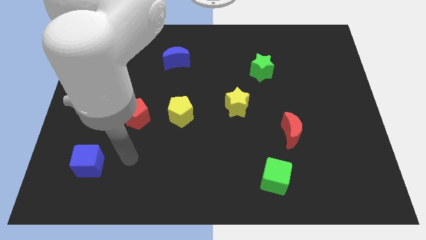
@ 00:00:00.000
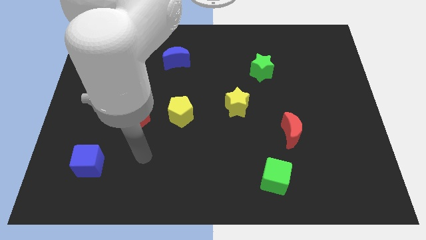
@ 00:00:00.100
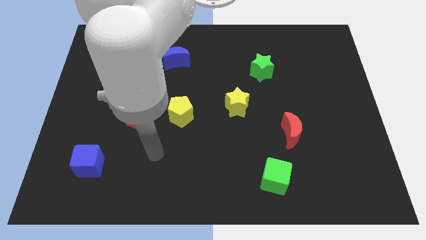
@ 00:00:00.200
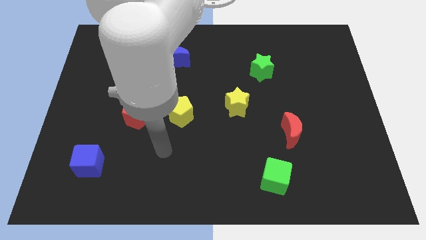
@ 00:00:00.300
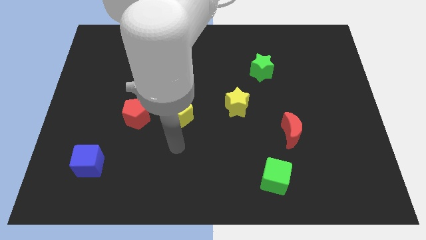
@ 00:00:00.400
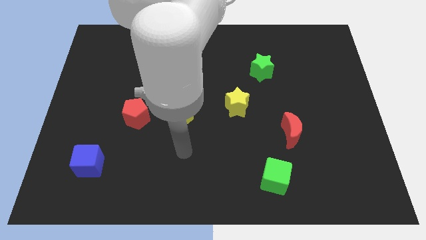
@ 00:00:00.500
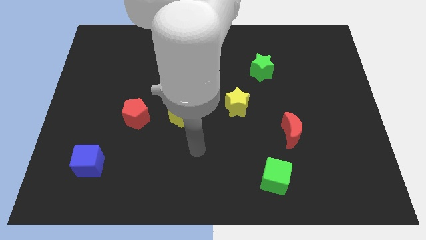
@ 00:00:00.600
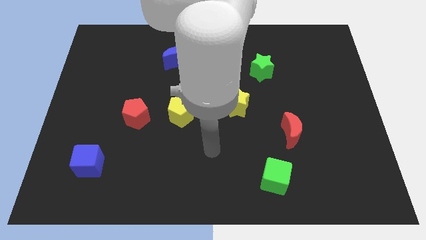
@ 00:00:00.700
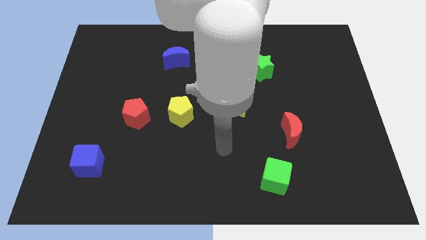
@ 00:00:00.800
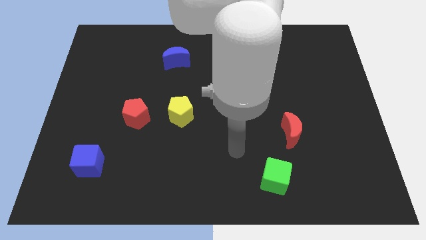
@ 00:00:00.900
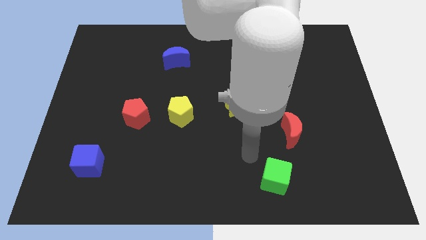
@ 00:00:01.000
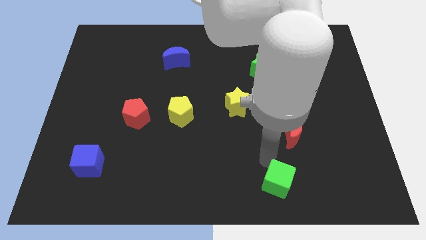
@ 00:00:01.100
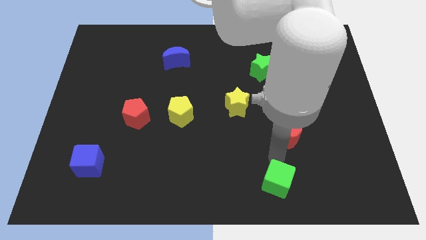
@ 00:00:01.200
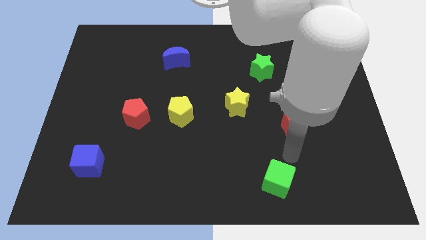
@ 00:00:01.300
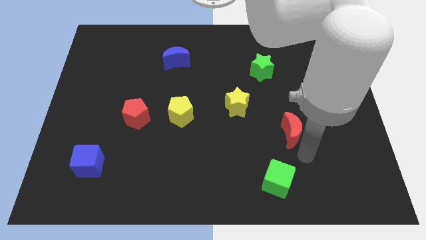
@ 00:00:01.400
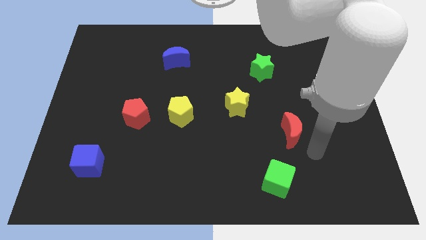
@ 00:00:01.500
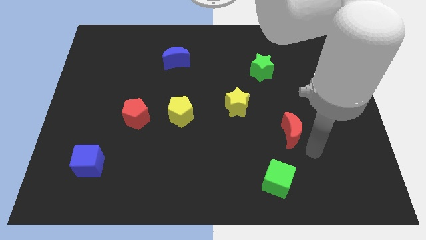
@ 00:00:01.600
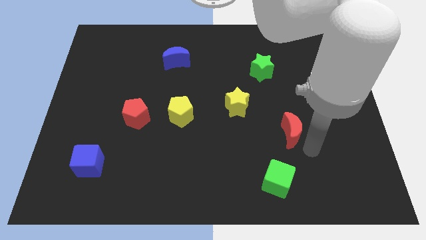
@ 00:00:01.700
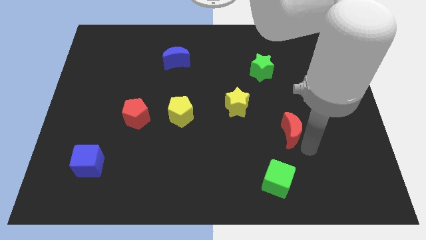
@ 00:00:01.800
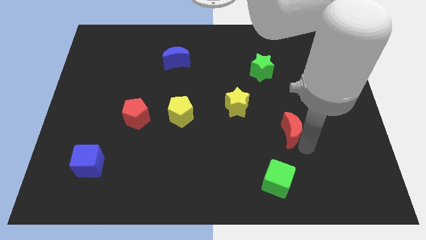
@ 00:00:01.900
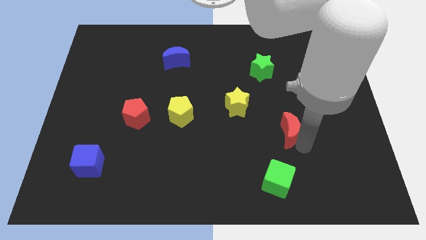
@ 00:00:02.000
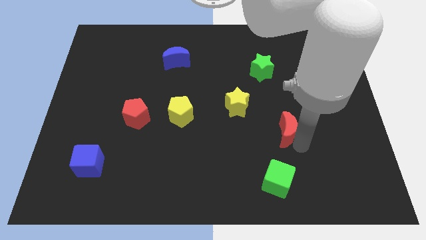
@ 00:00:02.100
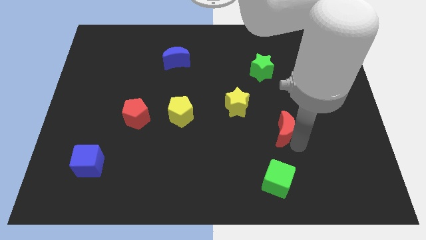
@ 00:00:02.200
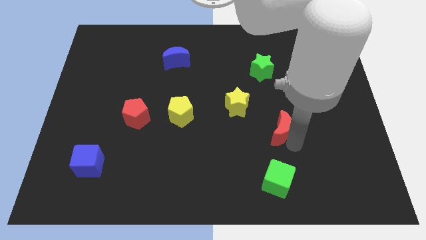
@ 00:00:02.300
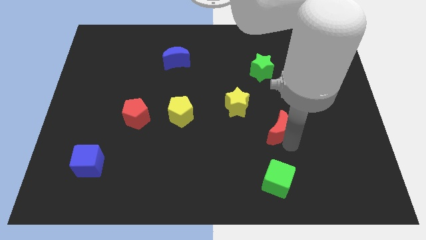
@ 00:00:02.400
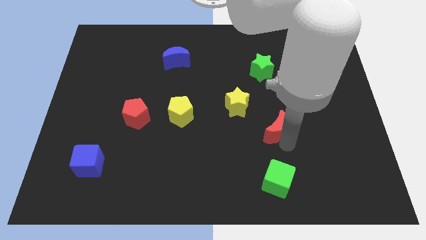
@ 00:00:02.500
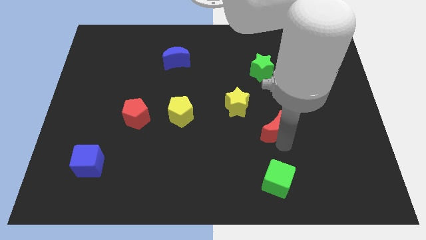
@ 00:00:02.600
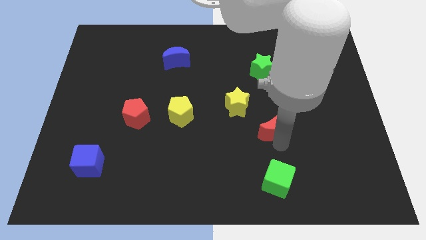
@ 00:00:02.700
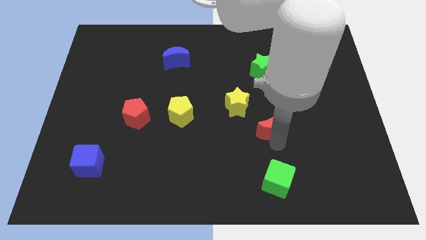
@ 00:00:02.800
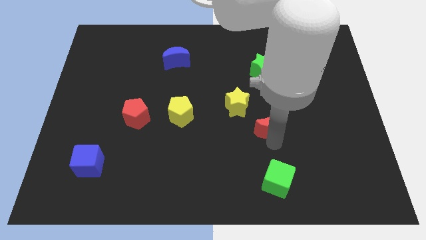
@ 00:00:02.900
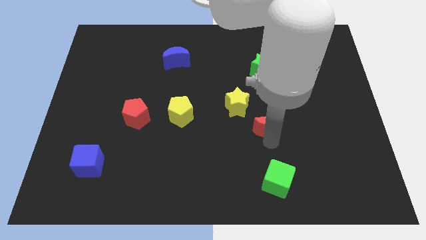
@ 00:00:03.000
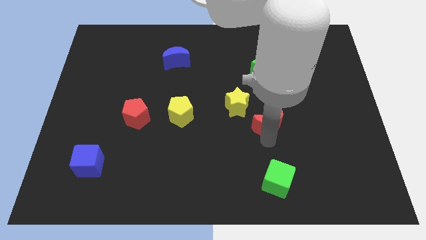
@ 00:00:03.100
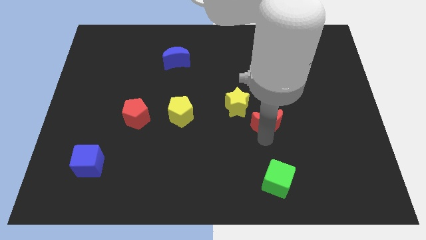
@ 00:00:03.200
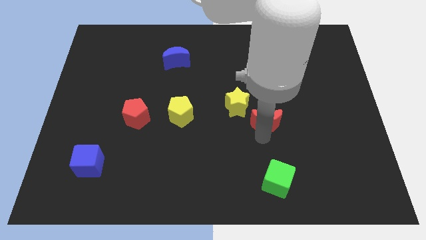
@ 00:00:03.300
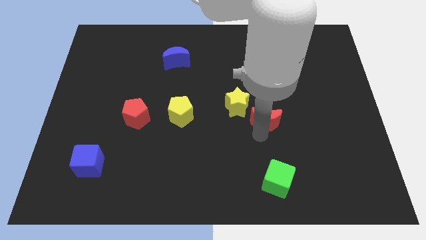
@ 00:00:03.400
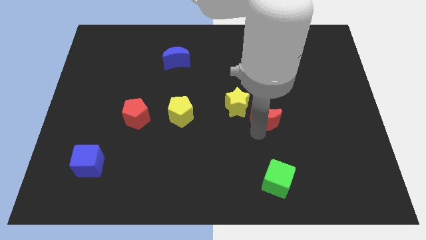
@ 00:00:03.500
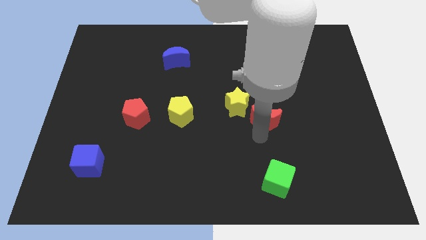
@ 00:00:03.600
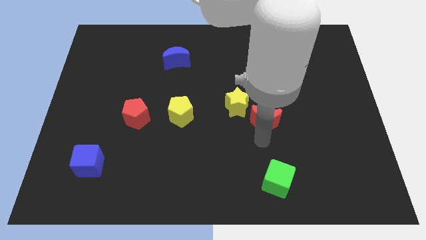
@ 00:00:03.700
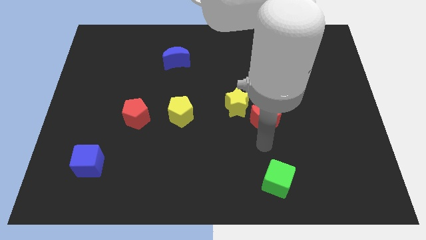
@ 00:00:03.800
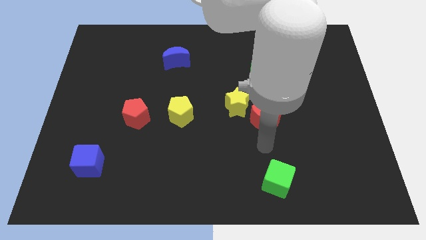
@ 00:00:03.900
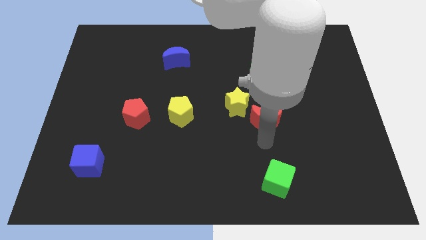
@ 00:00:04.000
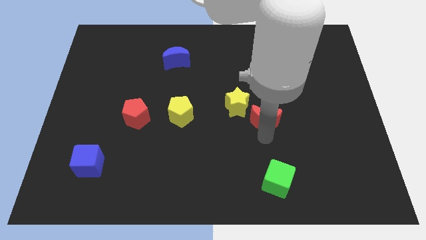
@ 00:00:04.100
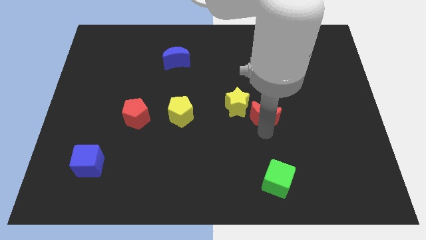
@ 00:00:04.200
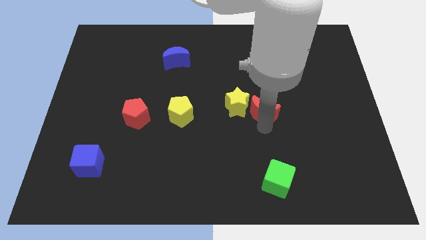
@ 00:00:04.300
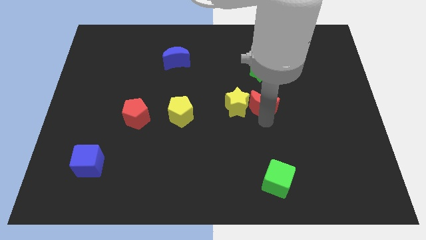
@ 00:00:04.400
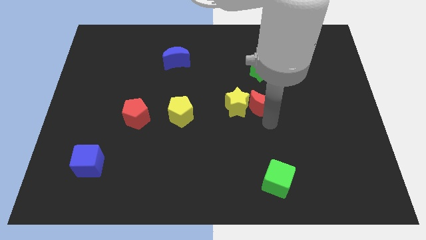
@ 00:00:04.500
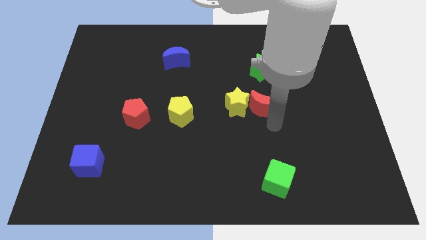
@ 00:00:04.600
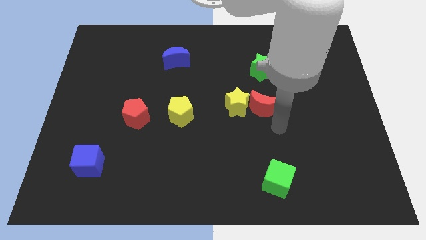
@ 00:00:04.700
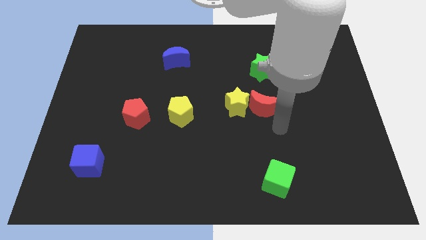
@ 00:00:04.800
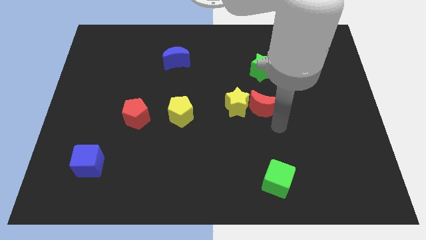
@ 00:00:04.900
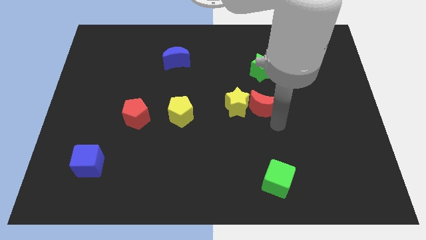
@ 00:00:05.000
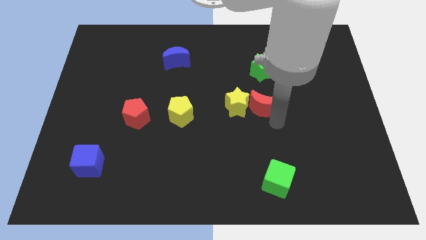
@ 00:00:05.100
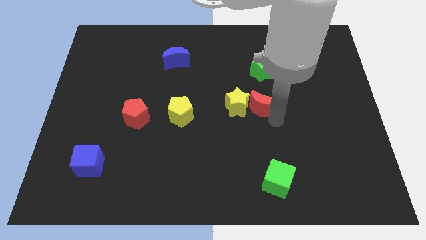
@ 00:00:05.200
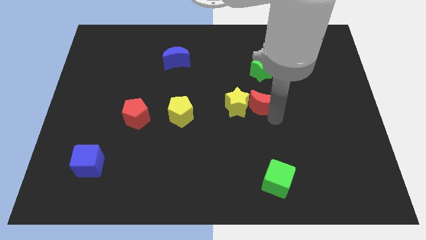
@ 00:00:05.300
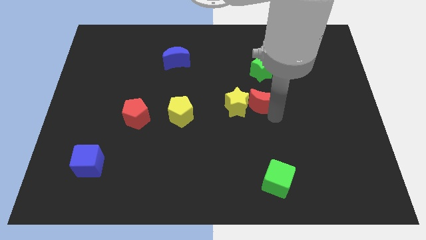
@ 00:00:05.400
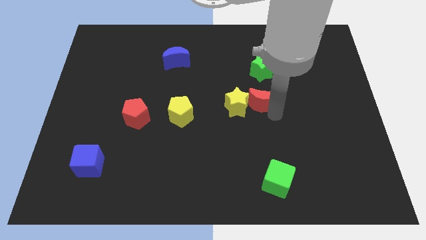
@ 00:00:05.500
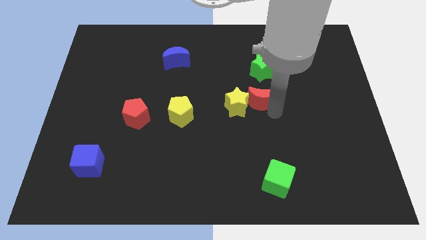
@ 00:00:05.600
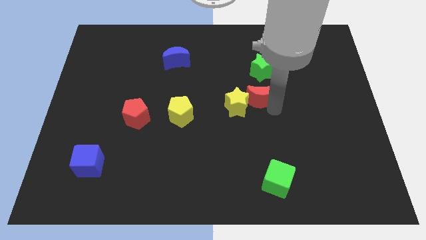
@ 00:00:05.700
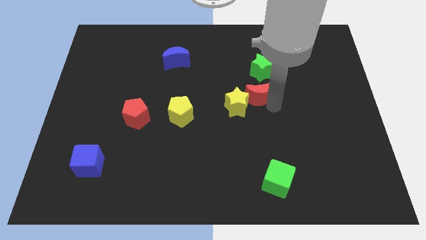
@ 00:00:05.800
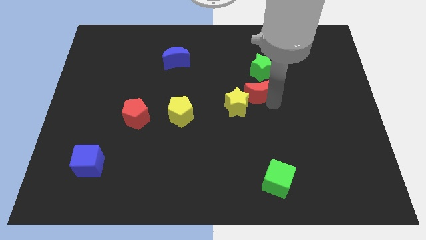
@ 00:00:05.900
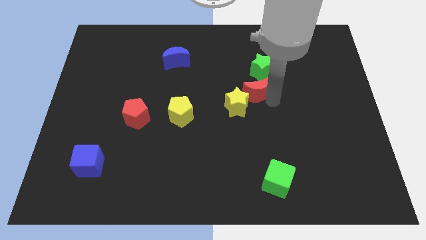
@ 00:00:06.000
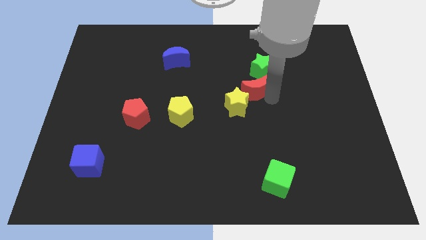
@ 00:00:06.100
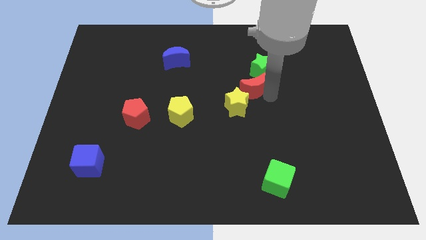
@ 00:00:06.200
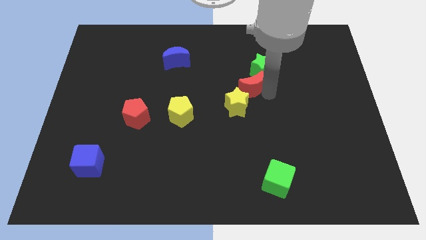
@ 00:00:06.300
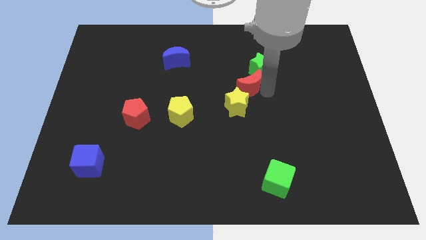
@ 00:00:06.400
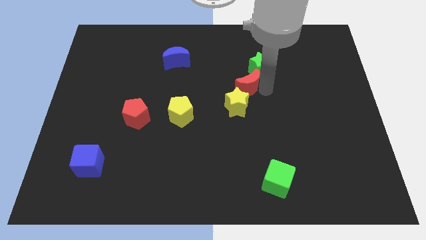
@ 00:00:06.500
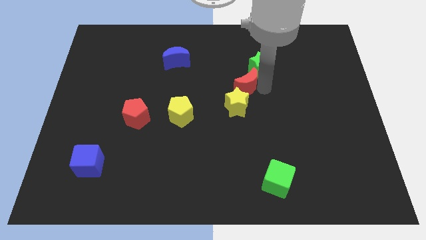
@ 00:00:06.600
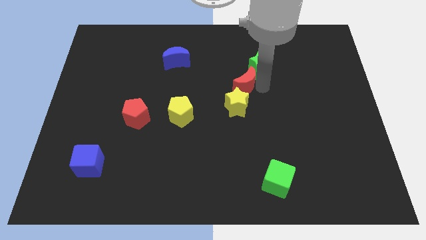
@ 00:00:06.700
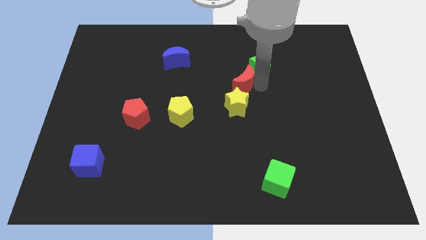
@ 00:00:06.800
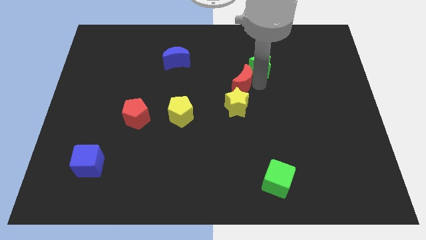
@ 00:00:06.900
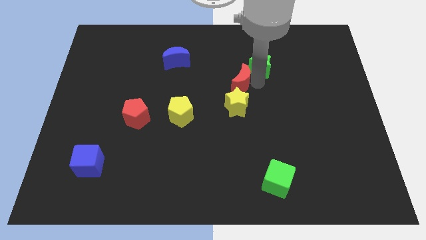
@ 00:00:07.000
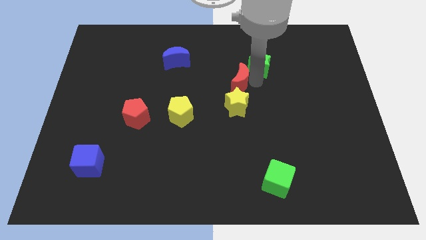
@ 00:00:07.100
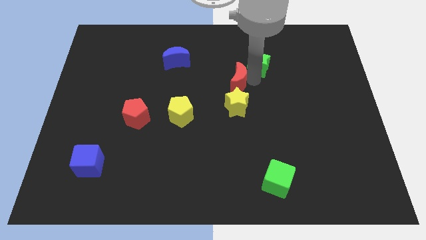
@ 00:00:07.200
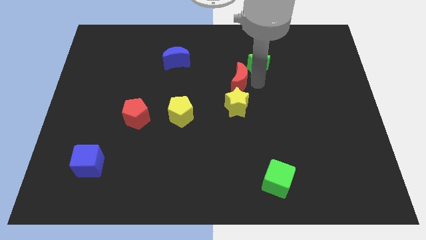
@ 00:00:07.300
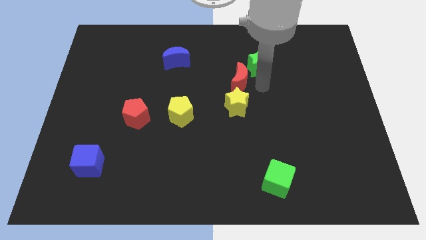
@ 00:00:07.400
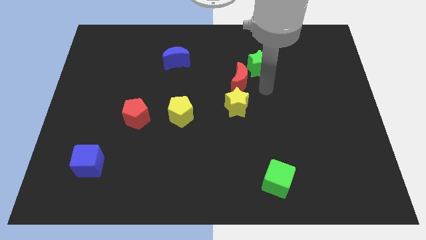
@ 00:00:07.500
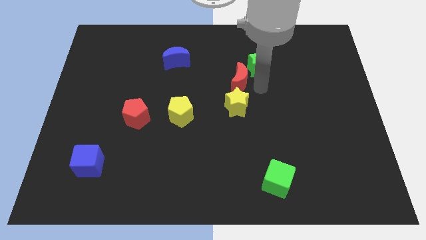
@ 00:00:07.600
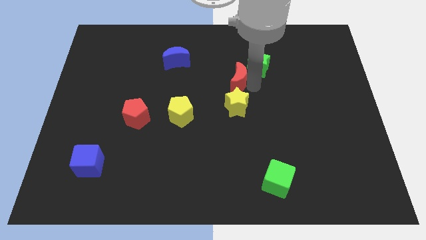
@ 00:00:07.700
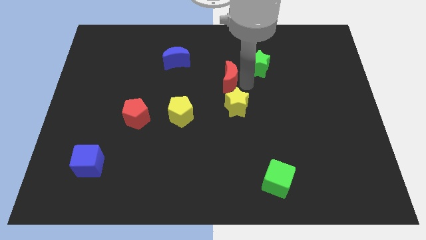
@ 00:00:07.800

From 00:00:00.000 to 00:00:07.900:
push the red moon up and then to the left
